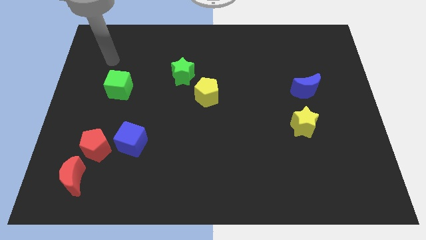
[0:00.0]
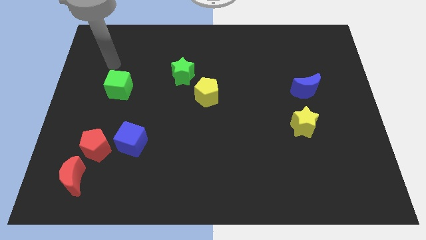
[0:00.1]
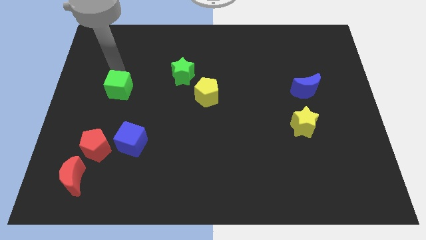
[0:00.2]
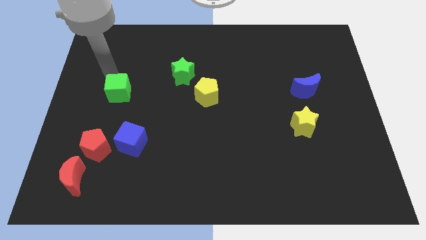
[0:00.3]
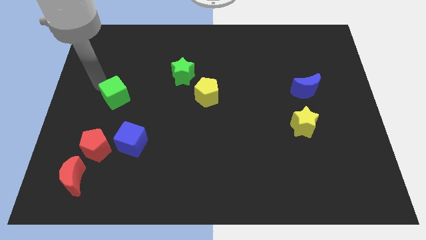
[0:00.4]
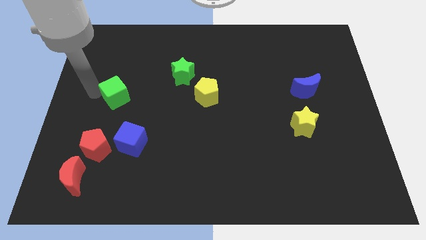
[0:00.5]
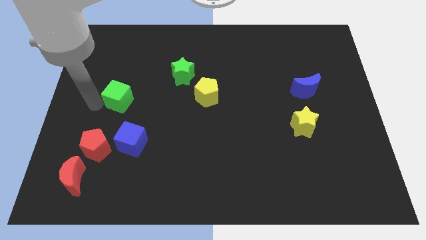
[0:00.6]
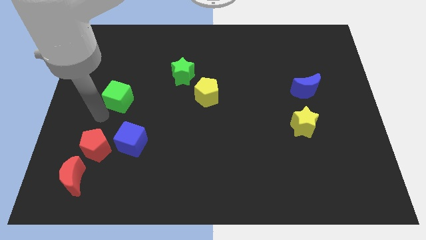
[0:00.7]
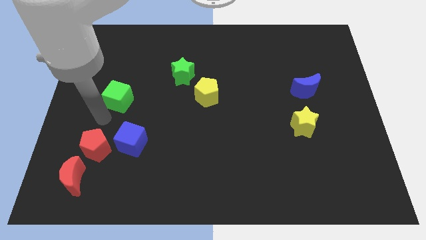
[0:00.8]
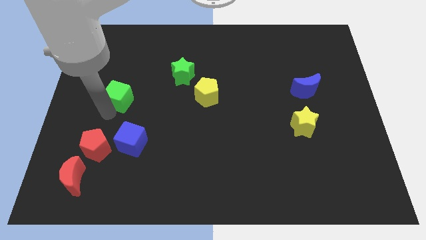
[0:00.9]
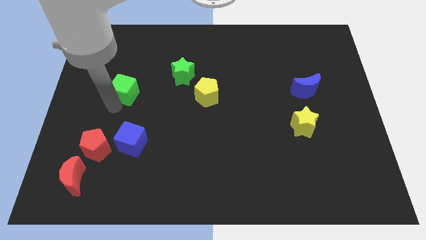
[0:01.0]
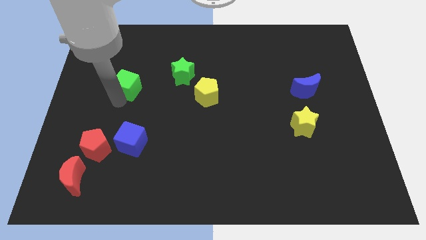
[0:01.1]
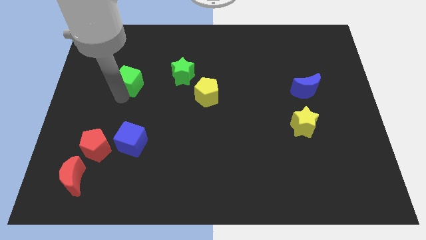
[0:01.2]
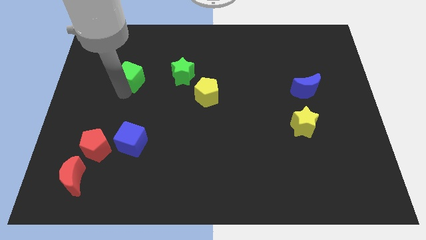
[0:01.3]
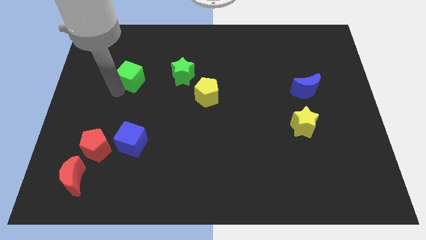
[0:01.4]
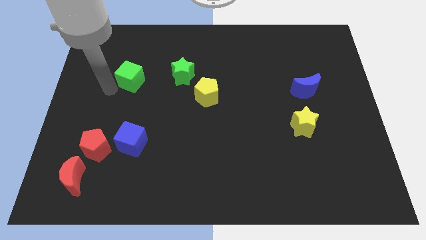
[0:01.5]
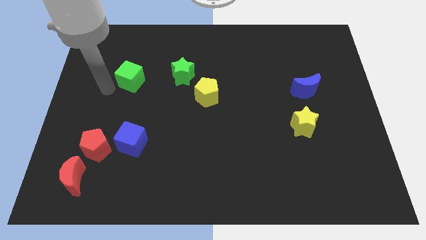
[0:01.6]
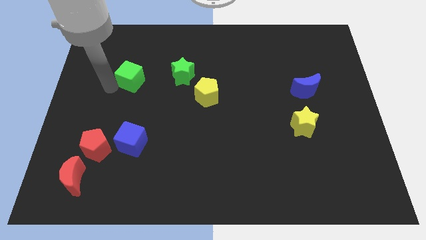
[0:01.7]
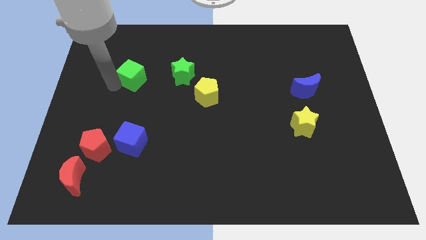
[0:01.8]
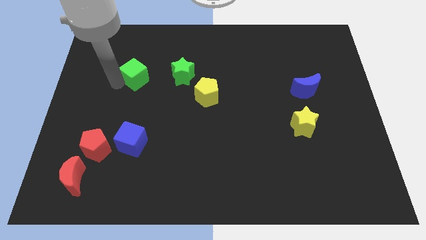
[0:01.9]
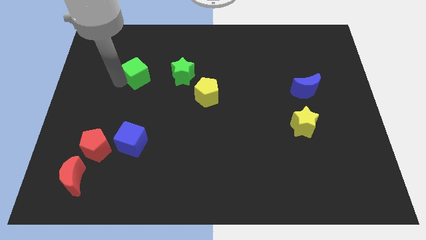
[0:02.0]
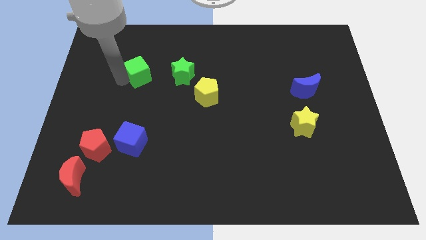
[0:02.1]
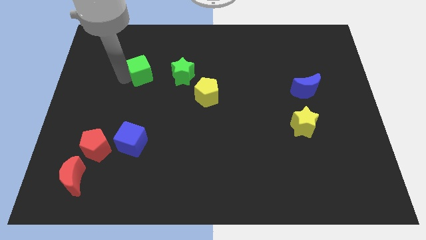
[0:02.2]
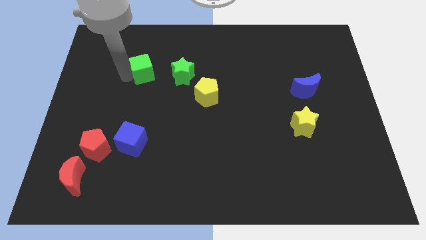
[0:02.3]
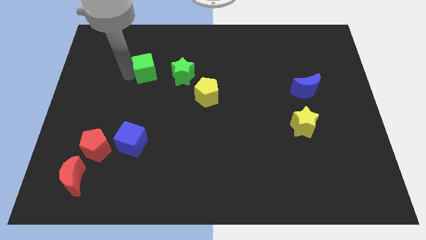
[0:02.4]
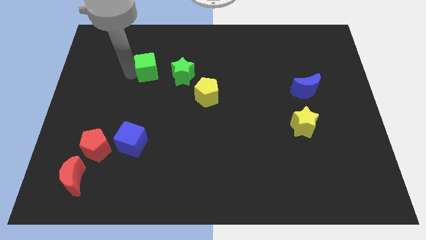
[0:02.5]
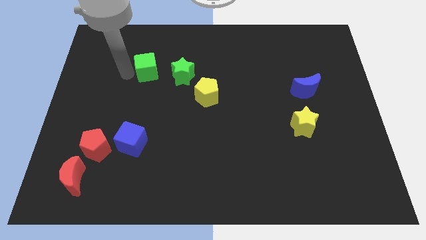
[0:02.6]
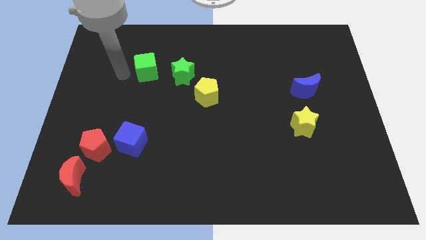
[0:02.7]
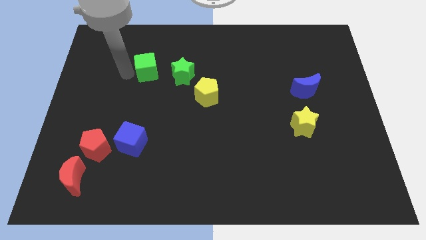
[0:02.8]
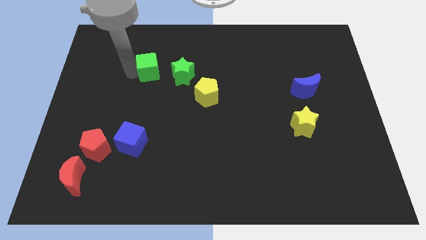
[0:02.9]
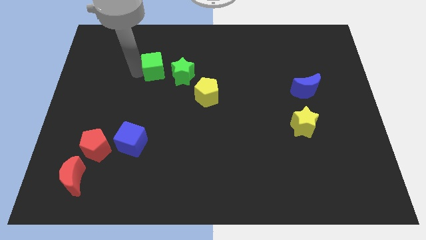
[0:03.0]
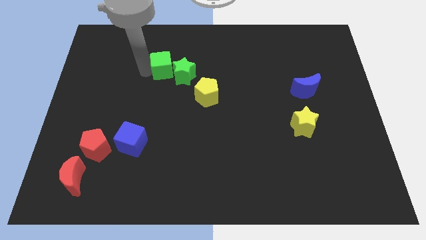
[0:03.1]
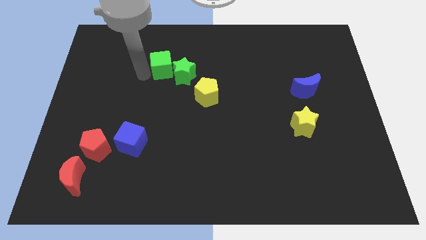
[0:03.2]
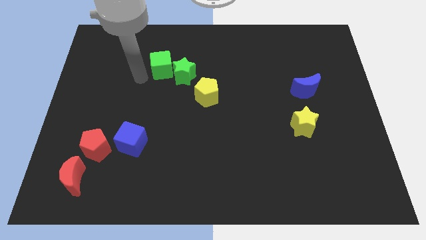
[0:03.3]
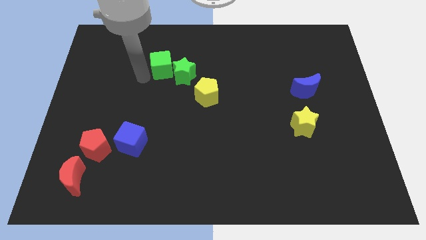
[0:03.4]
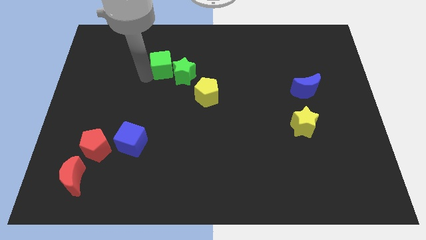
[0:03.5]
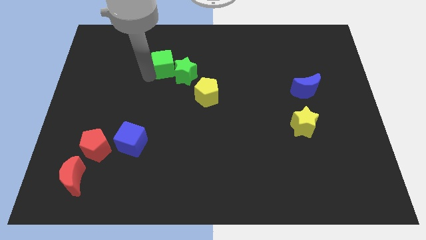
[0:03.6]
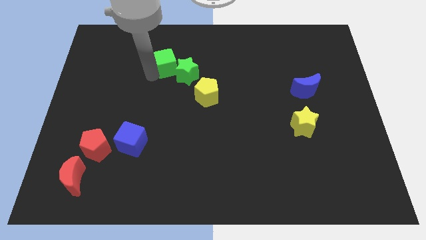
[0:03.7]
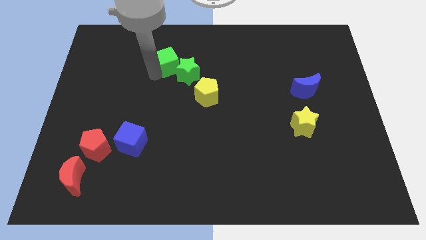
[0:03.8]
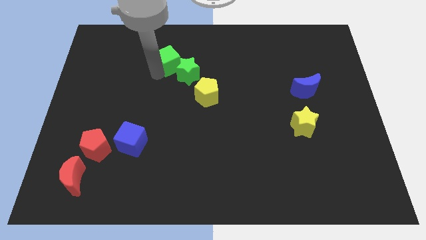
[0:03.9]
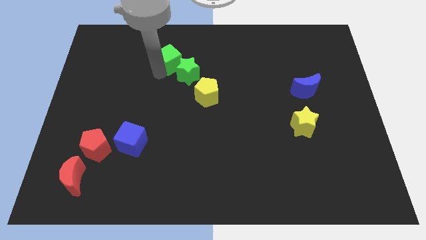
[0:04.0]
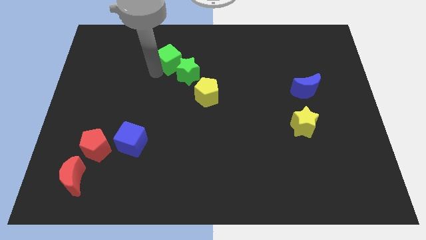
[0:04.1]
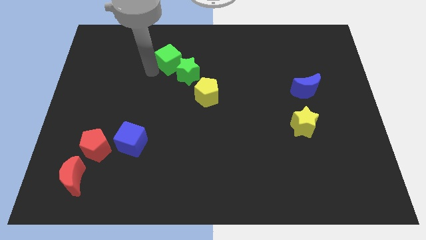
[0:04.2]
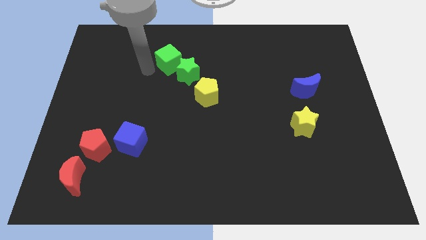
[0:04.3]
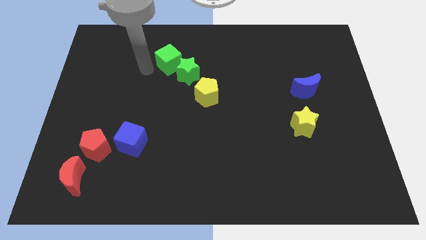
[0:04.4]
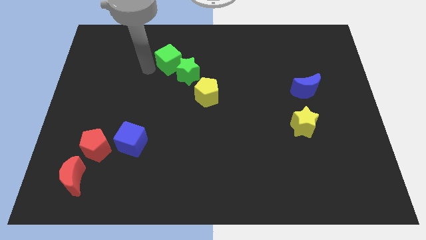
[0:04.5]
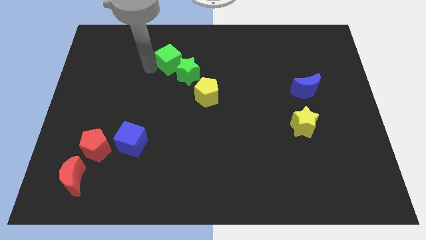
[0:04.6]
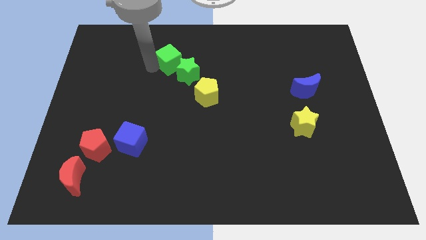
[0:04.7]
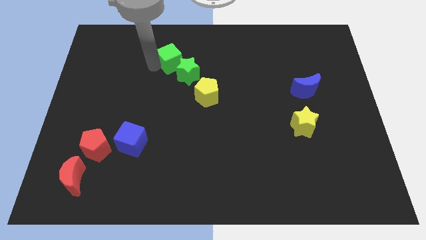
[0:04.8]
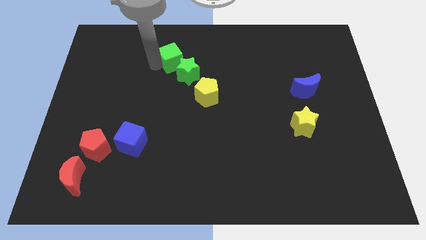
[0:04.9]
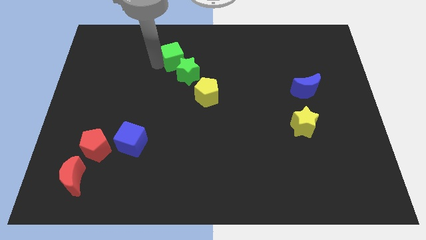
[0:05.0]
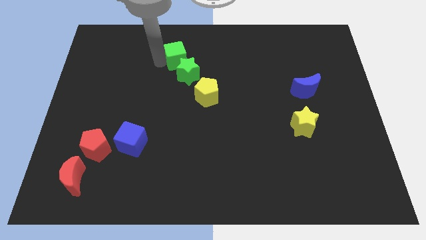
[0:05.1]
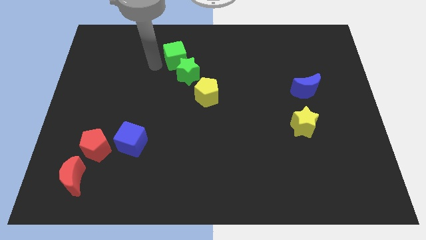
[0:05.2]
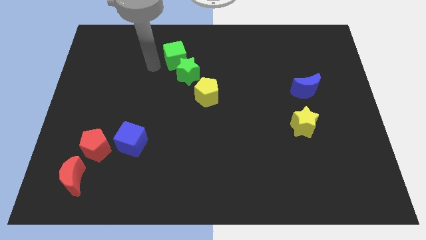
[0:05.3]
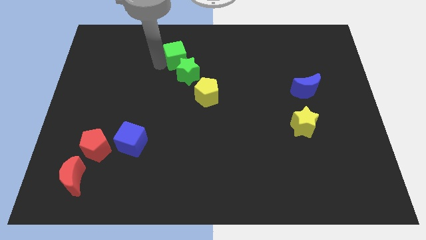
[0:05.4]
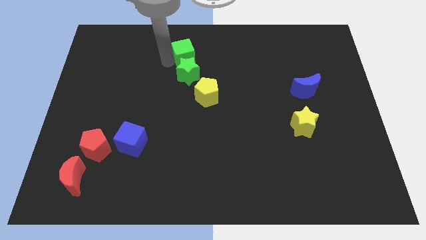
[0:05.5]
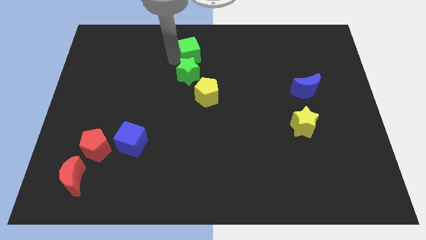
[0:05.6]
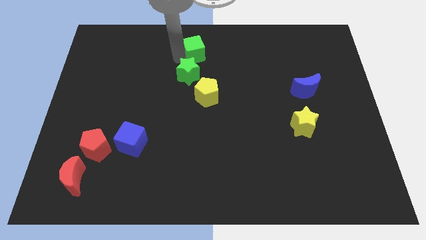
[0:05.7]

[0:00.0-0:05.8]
move the green cube to the top

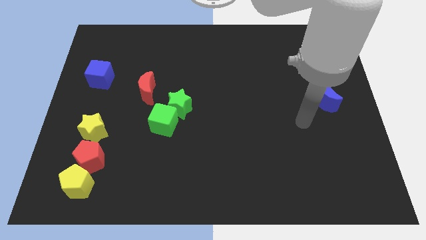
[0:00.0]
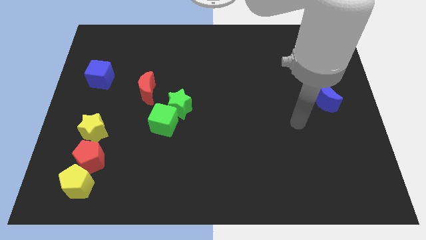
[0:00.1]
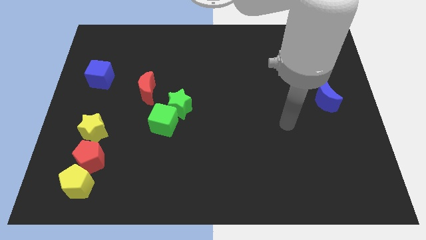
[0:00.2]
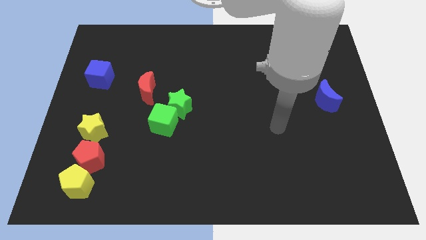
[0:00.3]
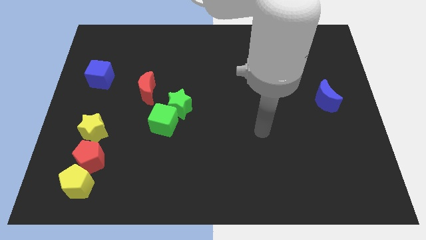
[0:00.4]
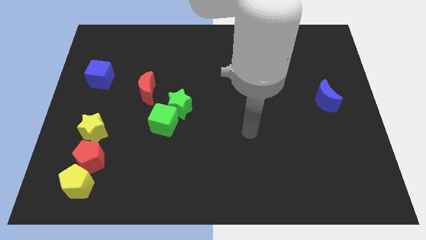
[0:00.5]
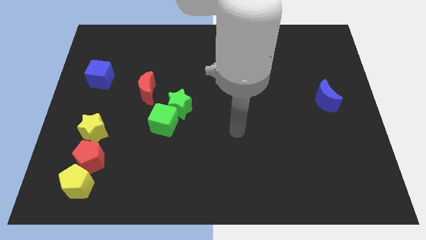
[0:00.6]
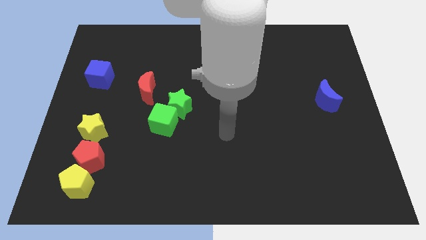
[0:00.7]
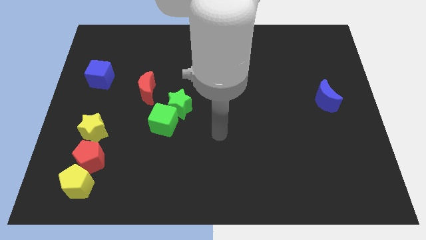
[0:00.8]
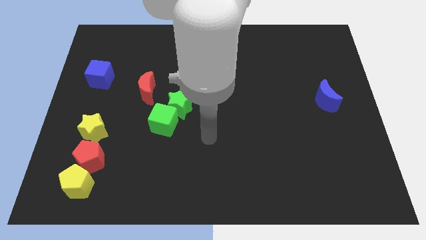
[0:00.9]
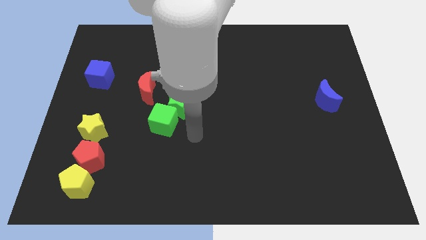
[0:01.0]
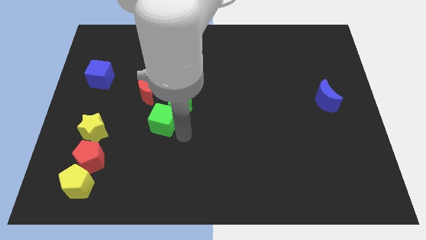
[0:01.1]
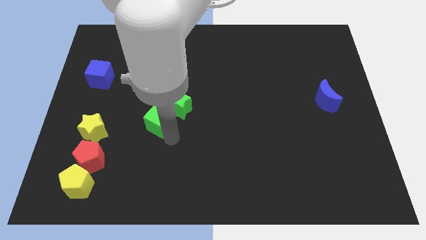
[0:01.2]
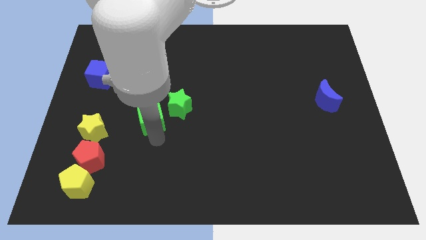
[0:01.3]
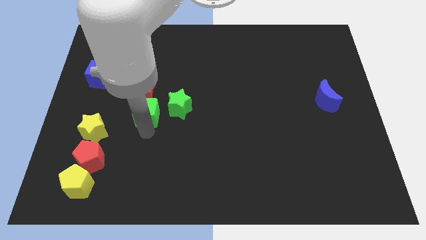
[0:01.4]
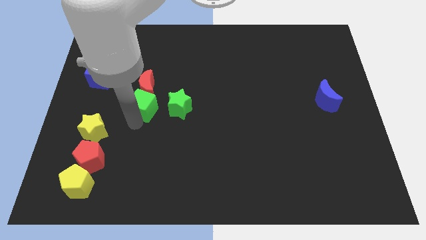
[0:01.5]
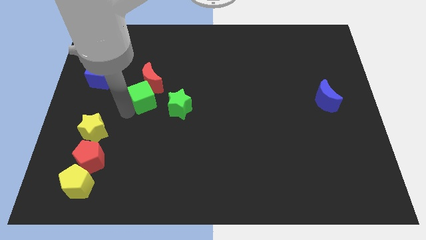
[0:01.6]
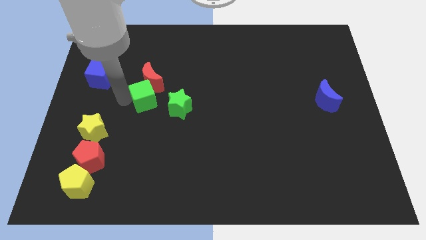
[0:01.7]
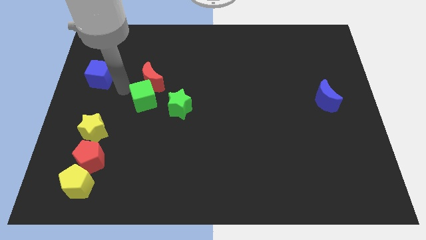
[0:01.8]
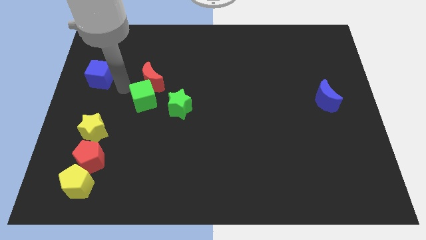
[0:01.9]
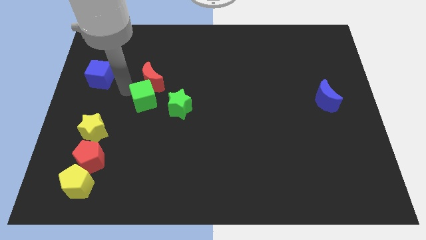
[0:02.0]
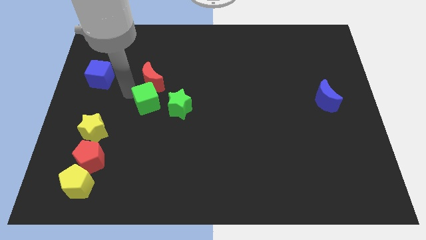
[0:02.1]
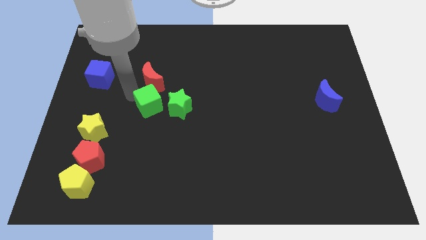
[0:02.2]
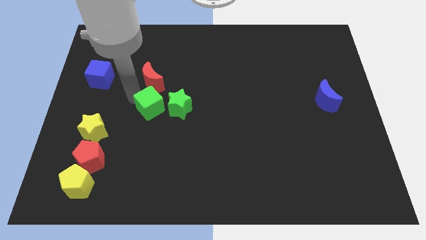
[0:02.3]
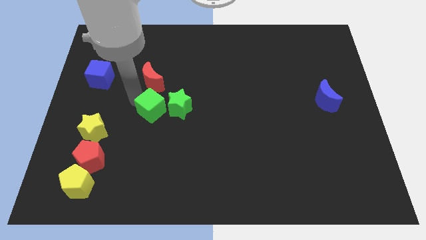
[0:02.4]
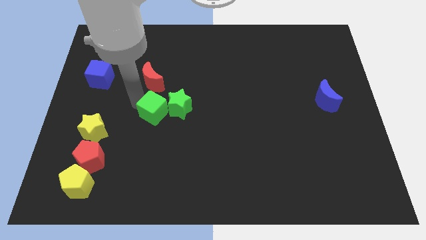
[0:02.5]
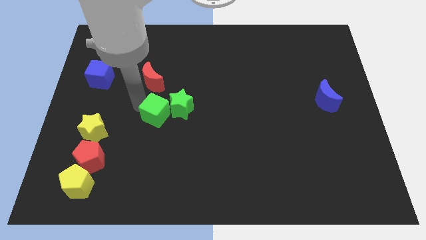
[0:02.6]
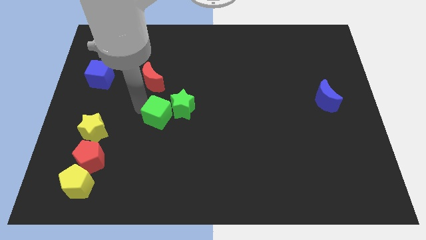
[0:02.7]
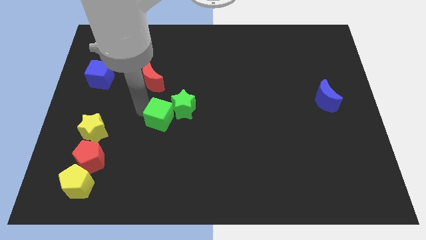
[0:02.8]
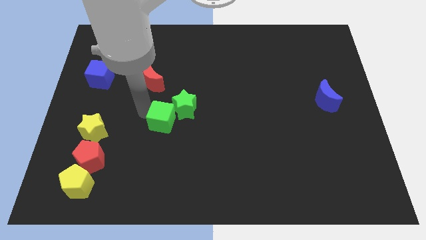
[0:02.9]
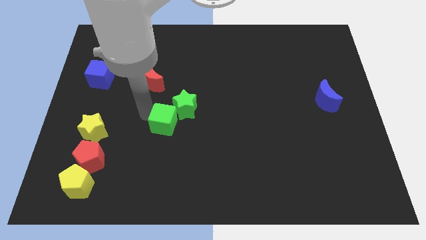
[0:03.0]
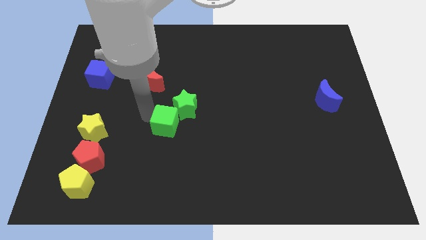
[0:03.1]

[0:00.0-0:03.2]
put the green cube to the middle of the board
